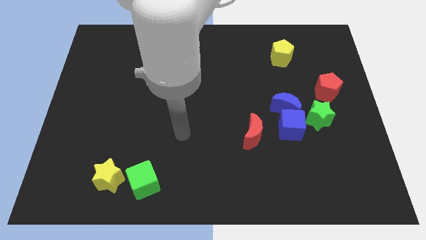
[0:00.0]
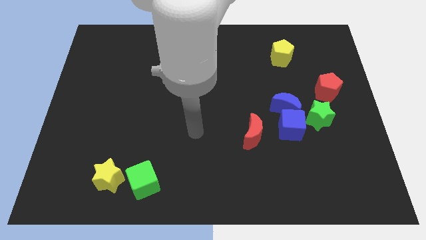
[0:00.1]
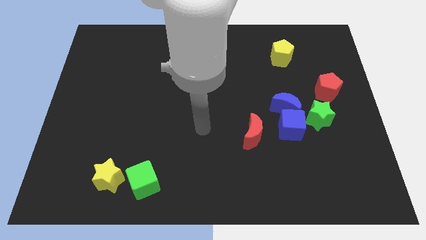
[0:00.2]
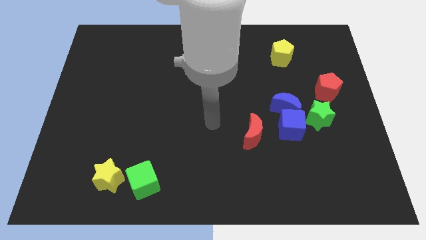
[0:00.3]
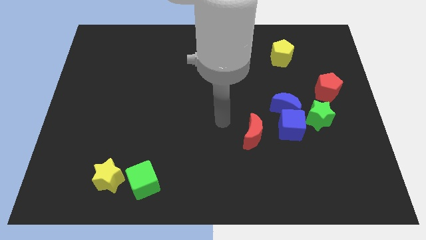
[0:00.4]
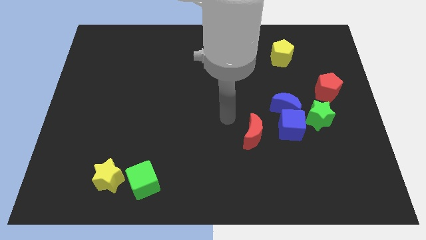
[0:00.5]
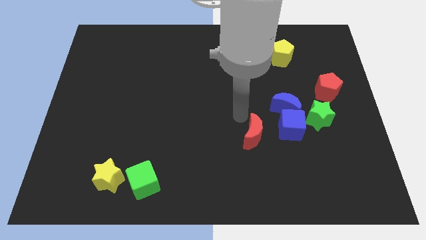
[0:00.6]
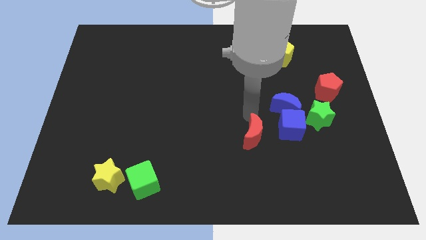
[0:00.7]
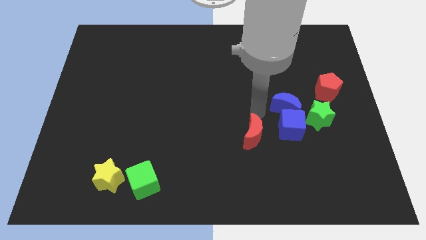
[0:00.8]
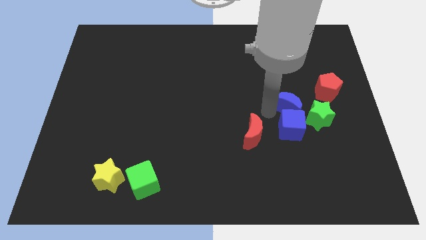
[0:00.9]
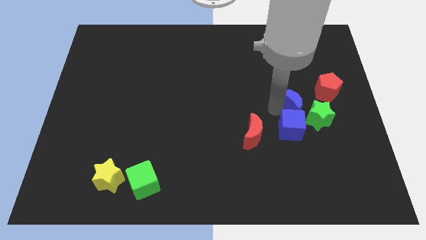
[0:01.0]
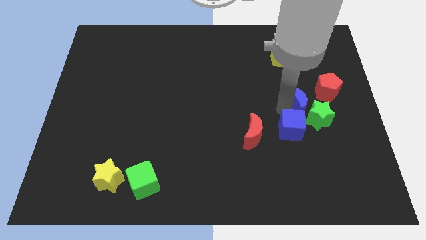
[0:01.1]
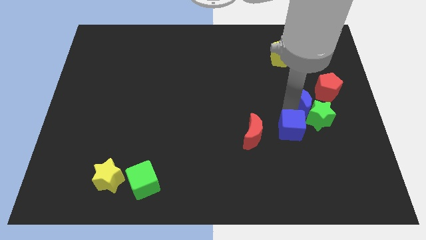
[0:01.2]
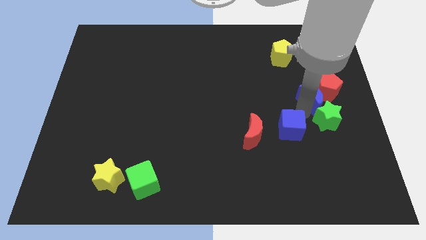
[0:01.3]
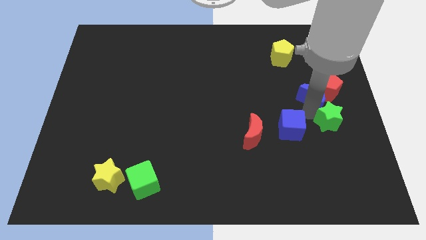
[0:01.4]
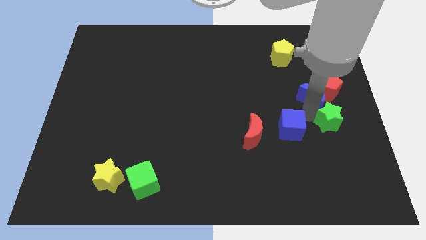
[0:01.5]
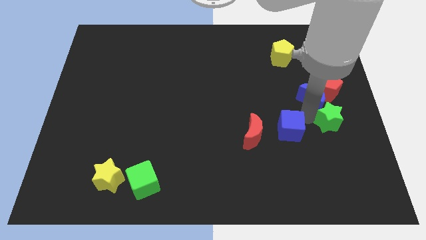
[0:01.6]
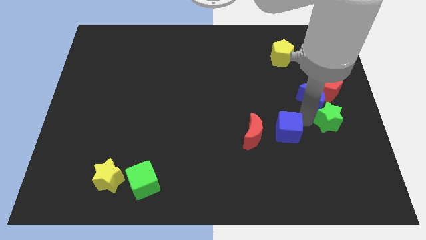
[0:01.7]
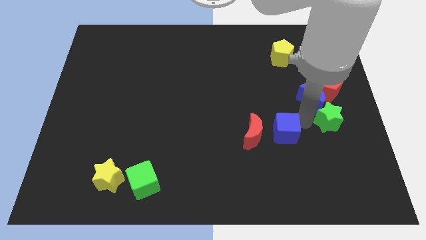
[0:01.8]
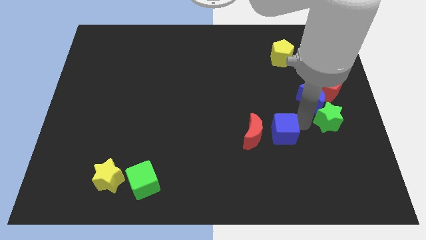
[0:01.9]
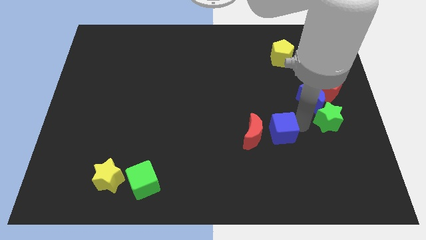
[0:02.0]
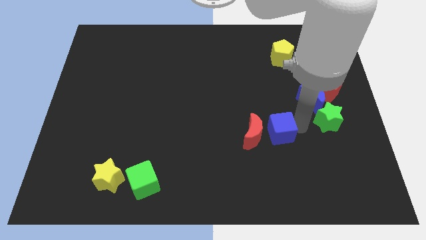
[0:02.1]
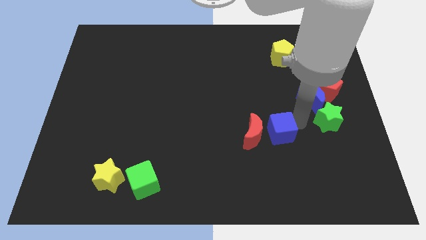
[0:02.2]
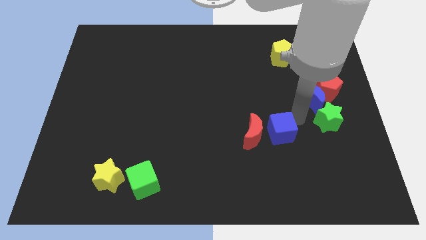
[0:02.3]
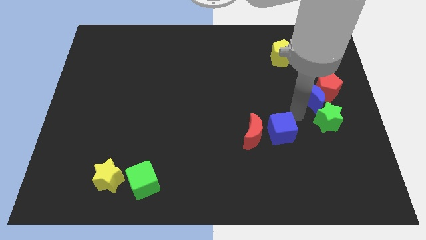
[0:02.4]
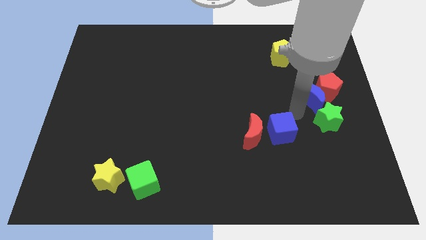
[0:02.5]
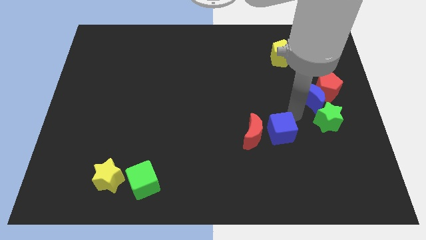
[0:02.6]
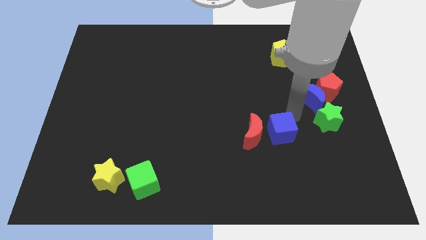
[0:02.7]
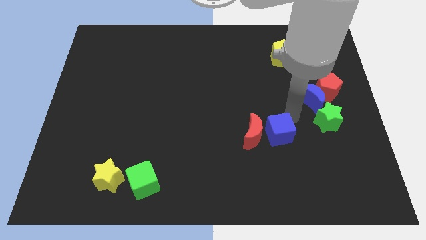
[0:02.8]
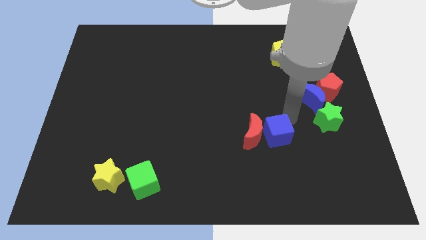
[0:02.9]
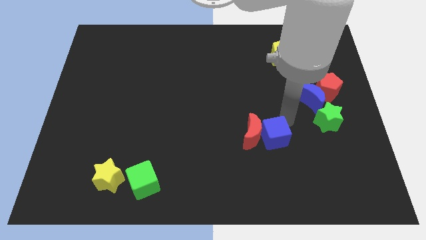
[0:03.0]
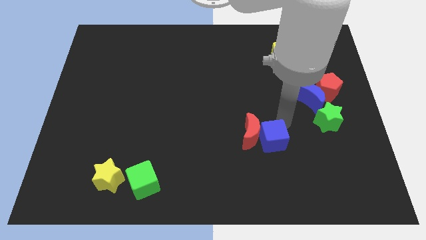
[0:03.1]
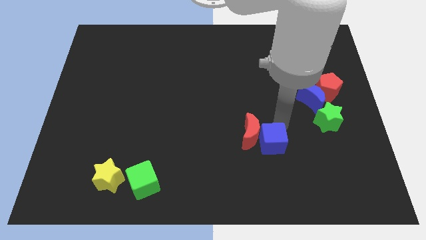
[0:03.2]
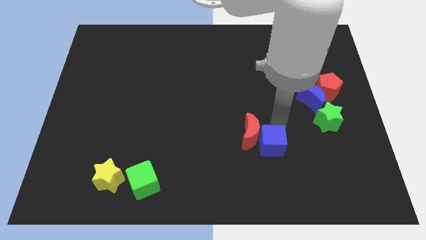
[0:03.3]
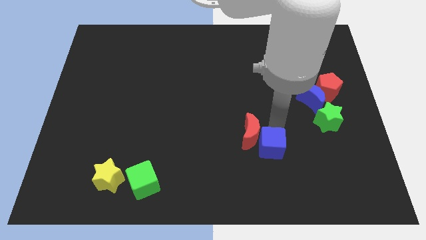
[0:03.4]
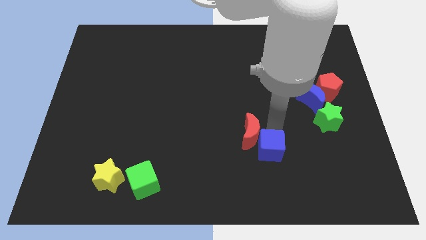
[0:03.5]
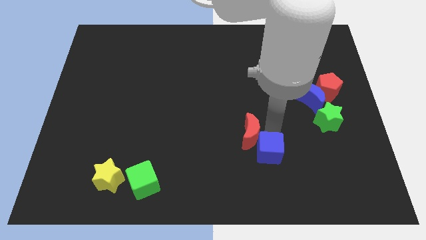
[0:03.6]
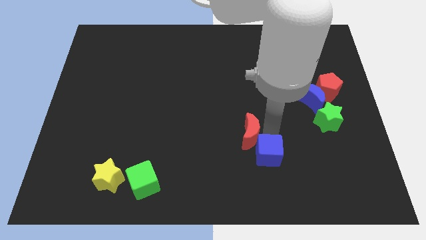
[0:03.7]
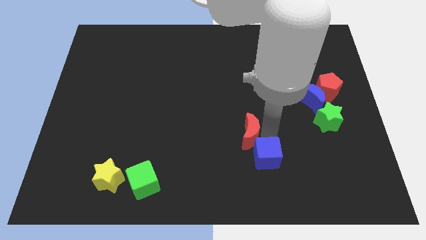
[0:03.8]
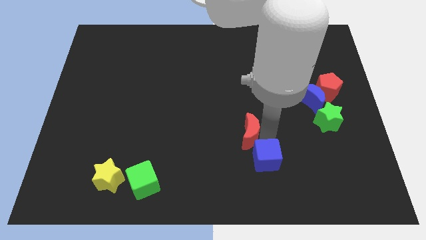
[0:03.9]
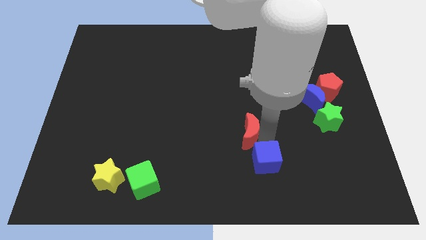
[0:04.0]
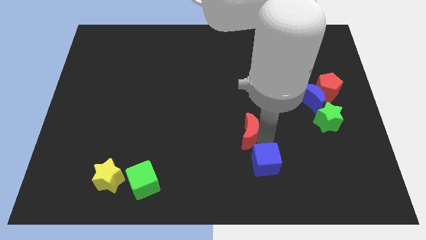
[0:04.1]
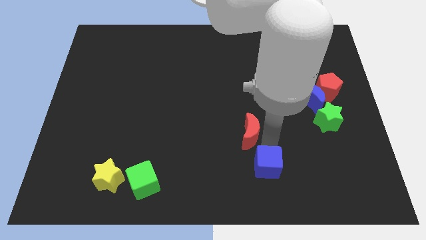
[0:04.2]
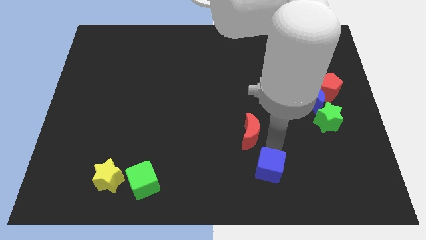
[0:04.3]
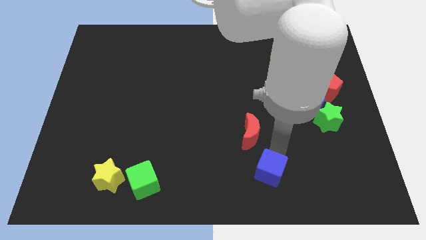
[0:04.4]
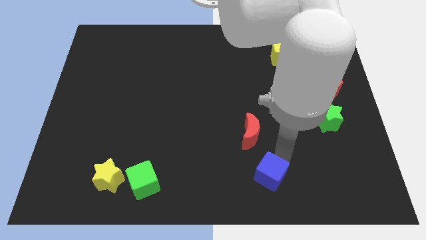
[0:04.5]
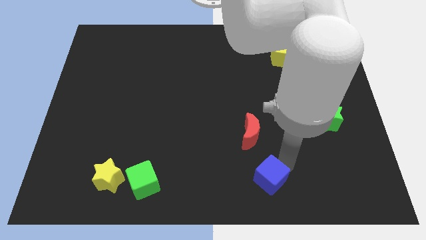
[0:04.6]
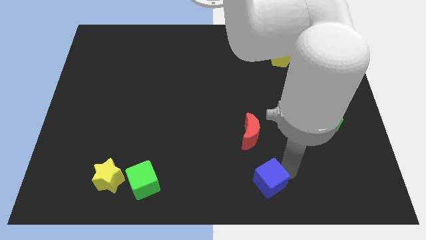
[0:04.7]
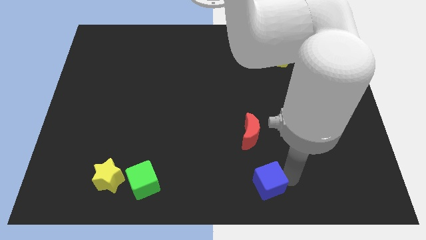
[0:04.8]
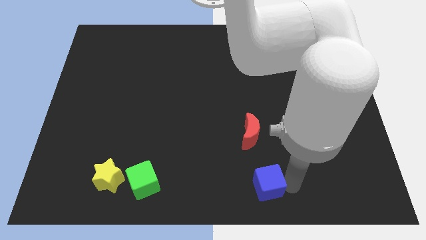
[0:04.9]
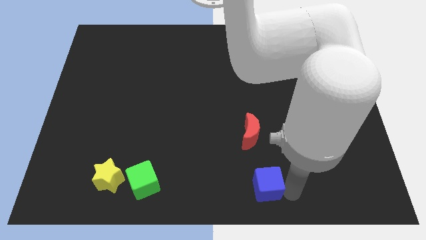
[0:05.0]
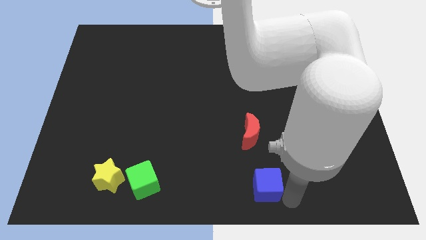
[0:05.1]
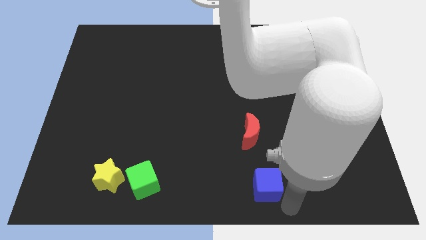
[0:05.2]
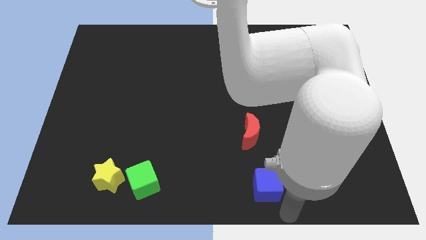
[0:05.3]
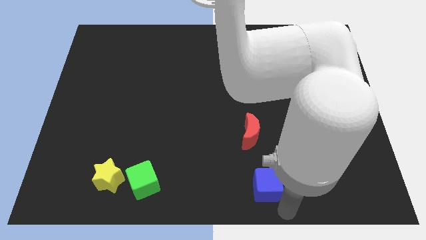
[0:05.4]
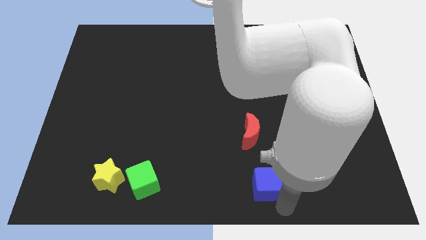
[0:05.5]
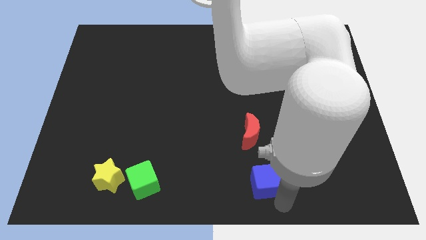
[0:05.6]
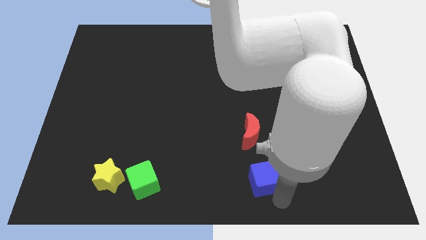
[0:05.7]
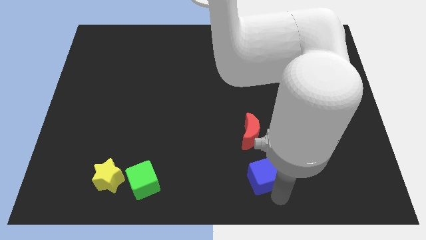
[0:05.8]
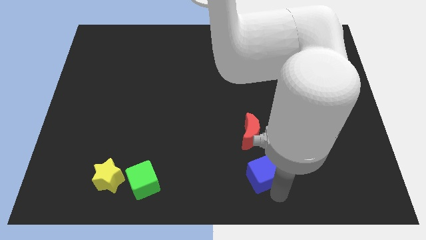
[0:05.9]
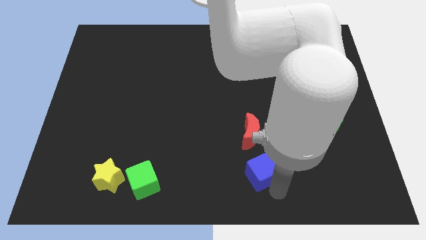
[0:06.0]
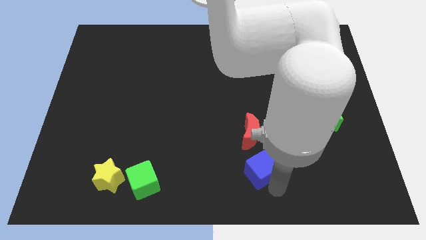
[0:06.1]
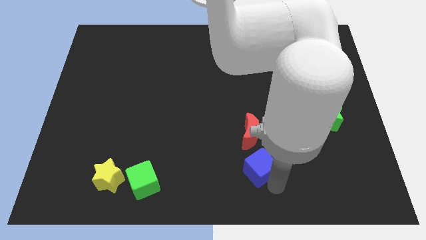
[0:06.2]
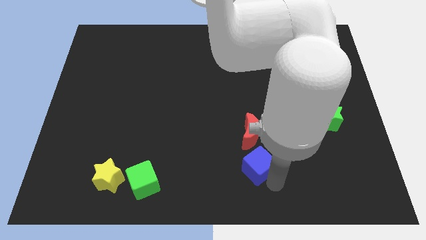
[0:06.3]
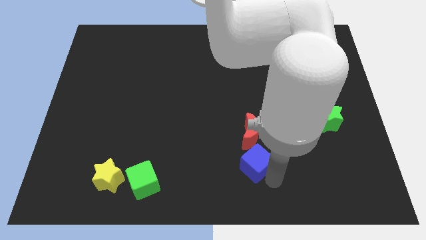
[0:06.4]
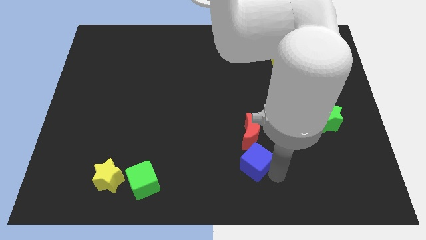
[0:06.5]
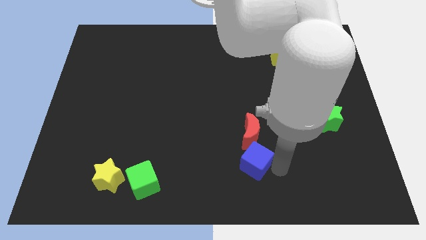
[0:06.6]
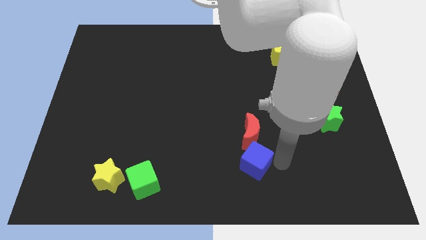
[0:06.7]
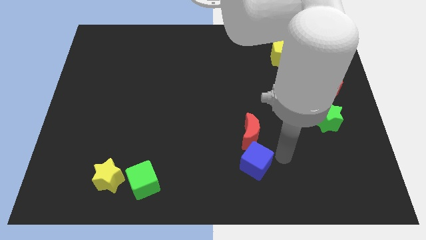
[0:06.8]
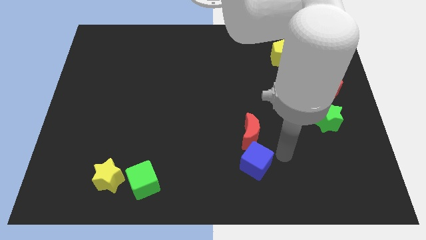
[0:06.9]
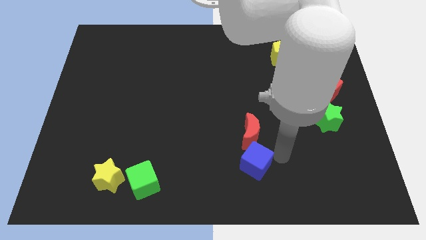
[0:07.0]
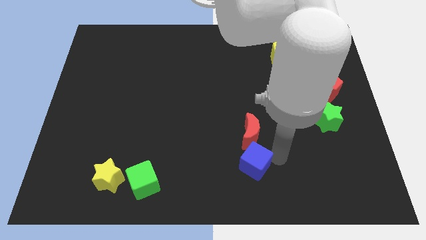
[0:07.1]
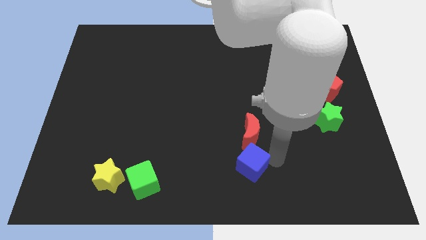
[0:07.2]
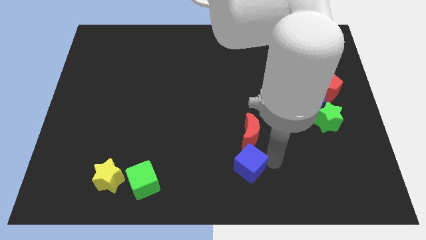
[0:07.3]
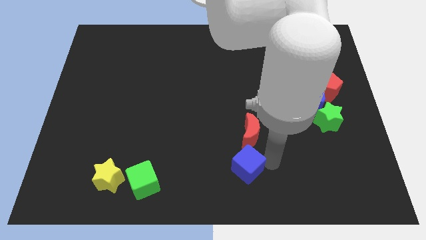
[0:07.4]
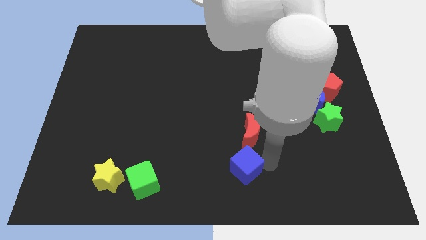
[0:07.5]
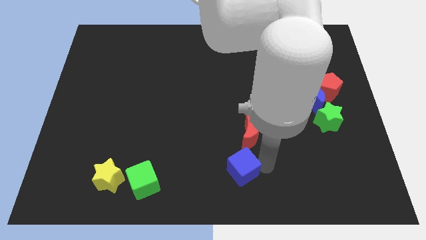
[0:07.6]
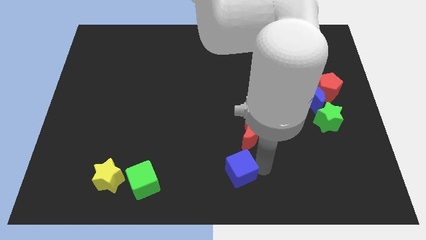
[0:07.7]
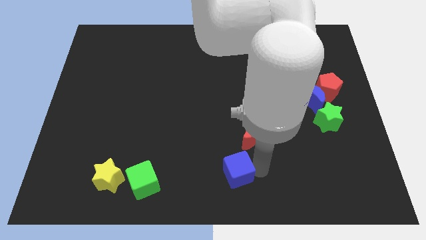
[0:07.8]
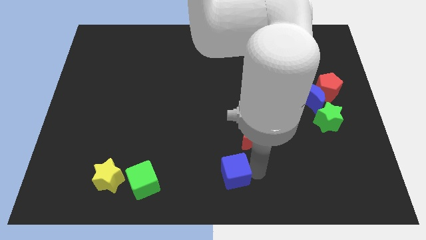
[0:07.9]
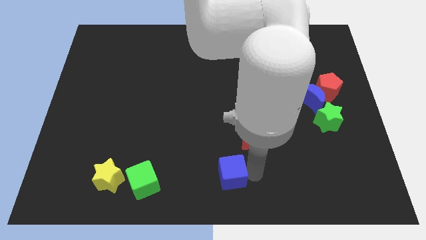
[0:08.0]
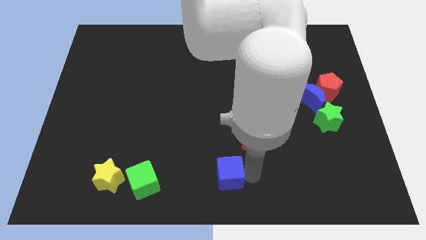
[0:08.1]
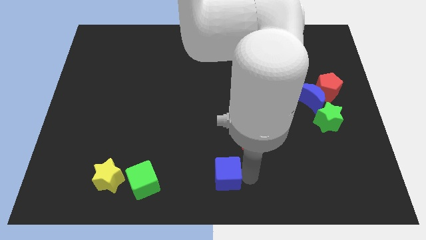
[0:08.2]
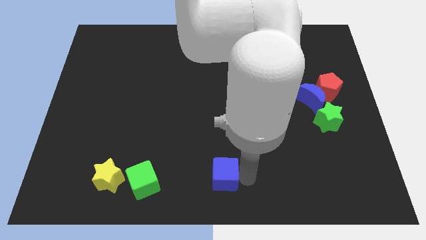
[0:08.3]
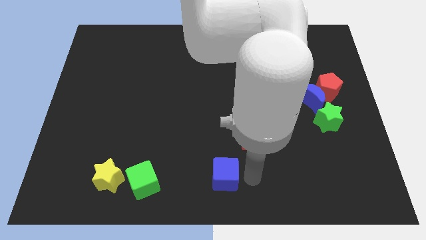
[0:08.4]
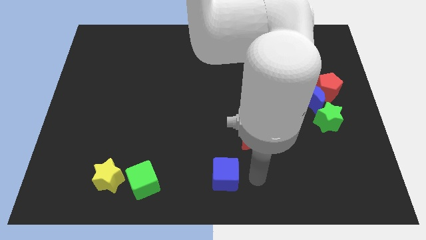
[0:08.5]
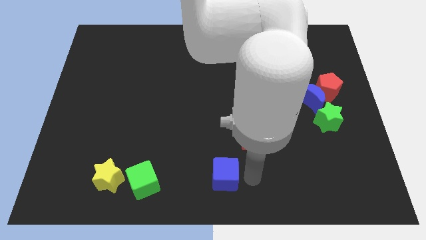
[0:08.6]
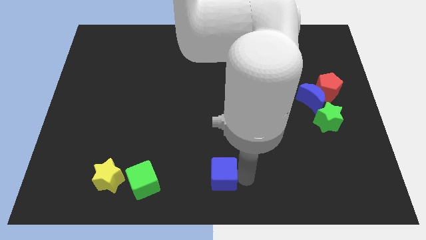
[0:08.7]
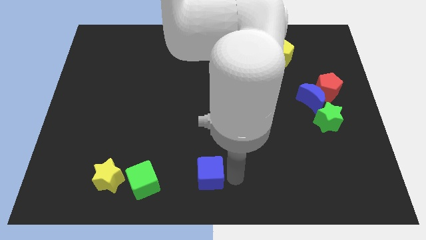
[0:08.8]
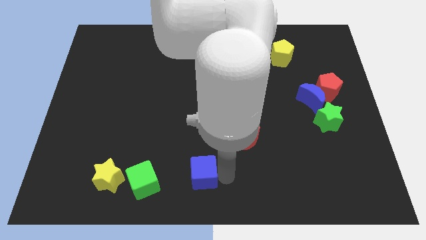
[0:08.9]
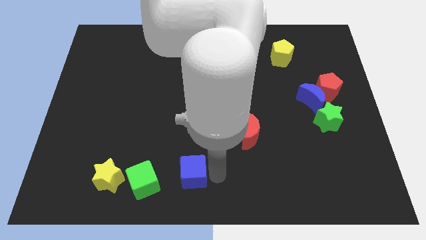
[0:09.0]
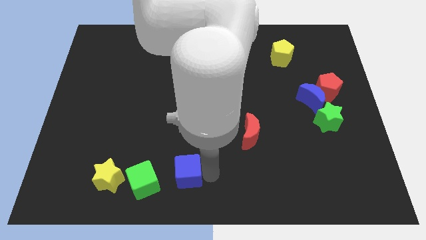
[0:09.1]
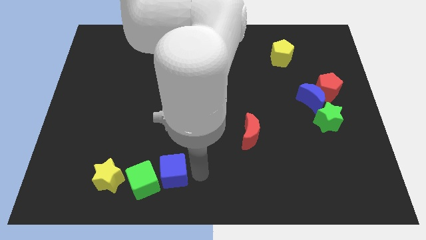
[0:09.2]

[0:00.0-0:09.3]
push the blue cube next to the green cube
